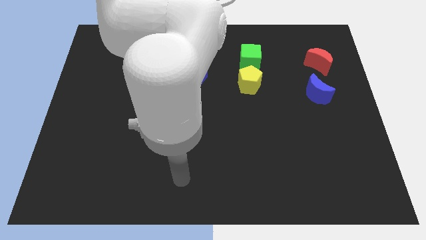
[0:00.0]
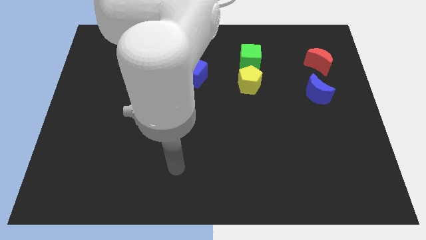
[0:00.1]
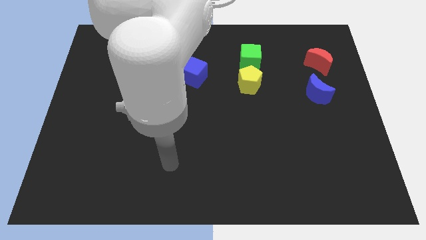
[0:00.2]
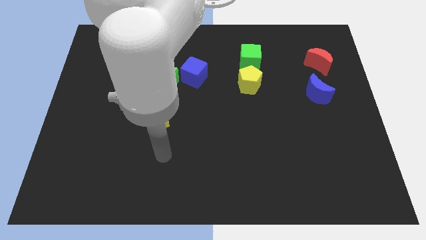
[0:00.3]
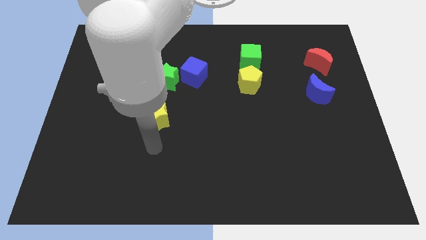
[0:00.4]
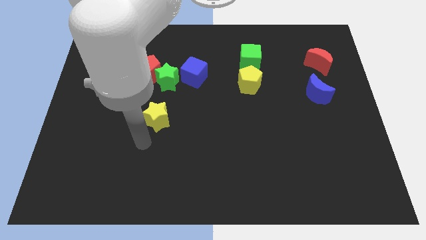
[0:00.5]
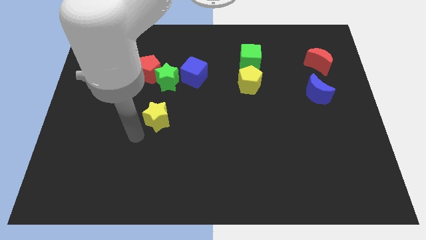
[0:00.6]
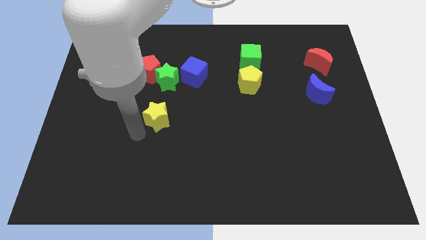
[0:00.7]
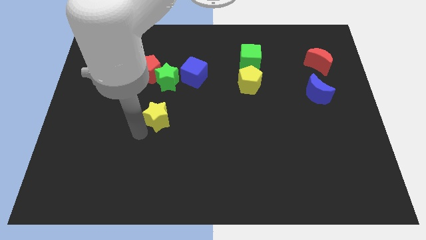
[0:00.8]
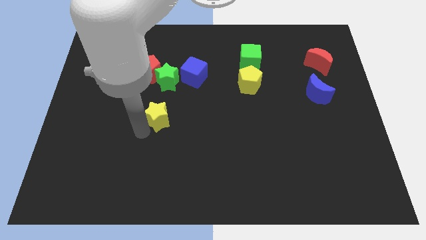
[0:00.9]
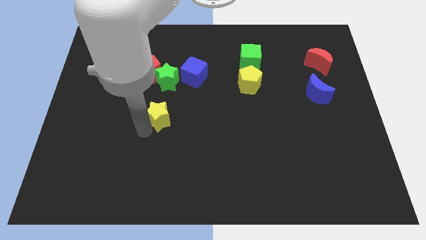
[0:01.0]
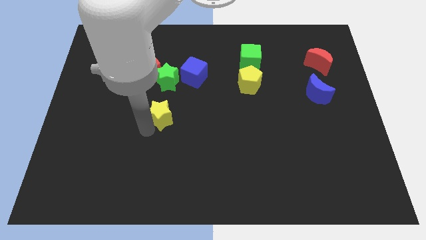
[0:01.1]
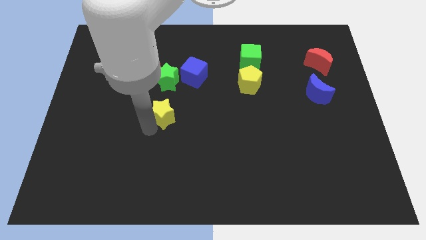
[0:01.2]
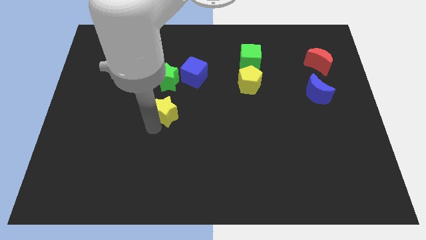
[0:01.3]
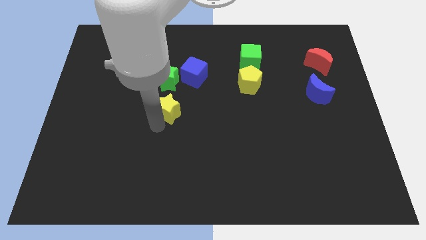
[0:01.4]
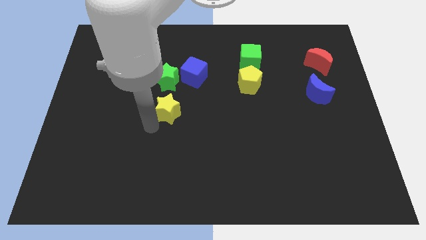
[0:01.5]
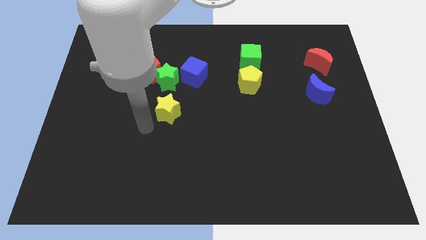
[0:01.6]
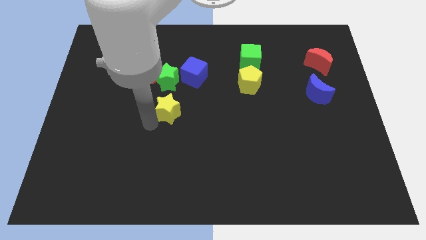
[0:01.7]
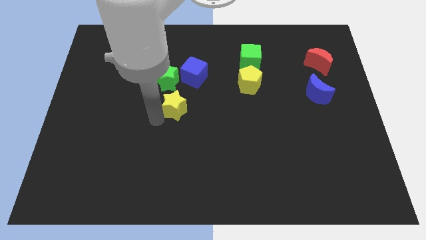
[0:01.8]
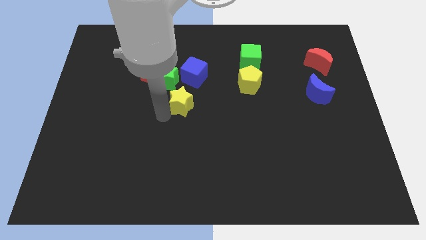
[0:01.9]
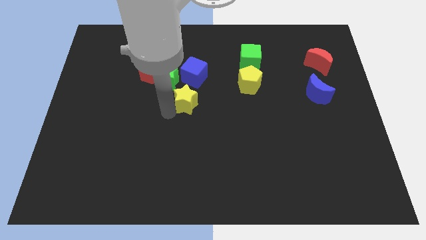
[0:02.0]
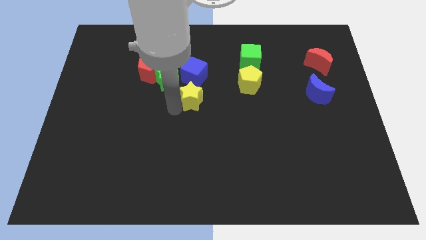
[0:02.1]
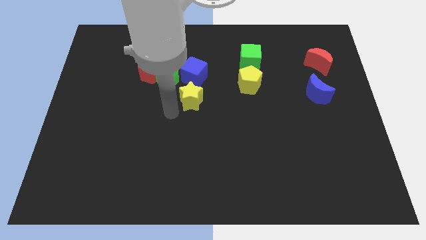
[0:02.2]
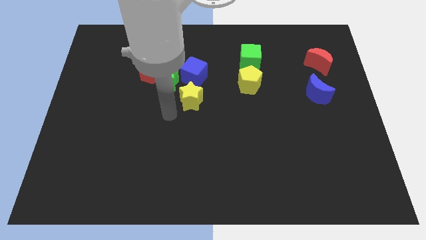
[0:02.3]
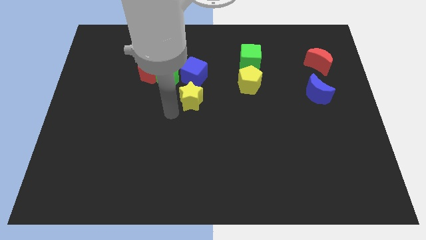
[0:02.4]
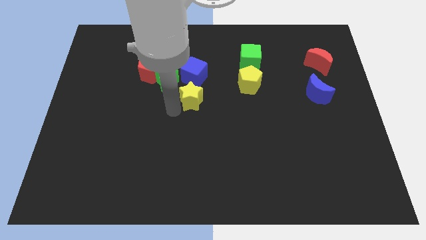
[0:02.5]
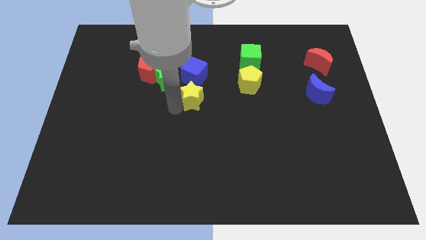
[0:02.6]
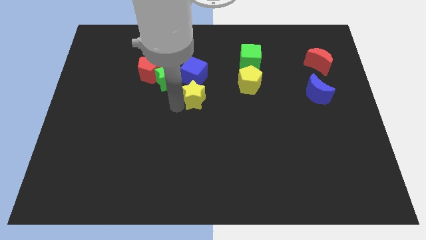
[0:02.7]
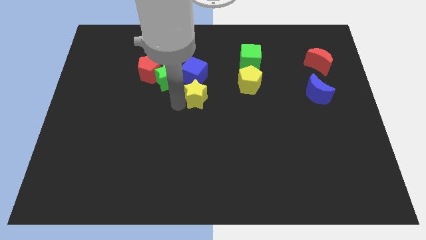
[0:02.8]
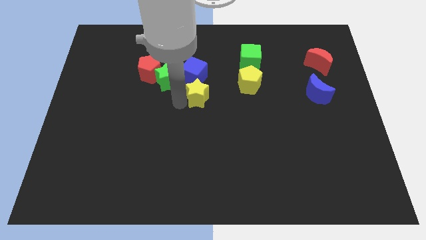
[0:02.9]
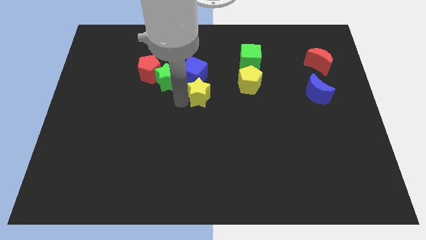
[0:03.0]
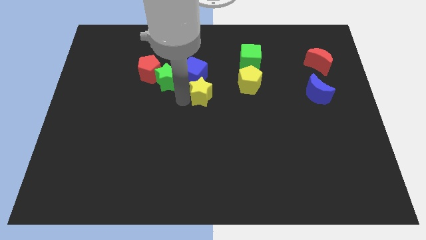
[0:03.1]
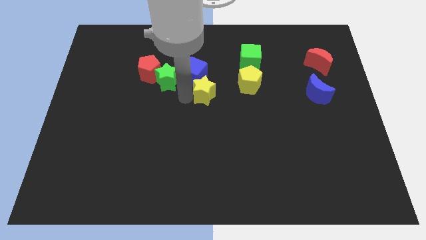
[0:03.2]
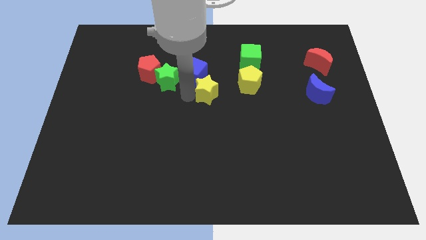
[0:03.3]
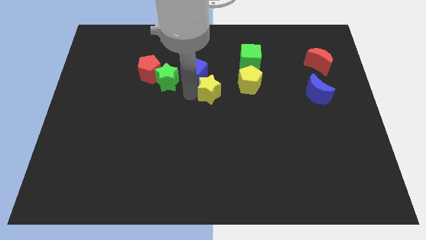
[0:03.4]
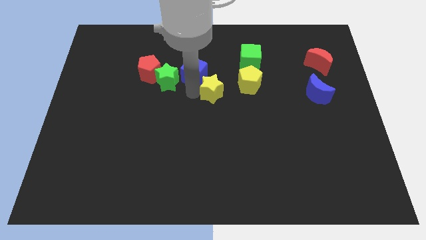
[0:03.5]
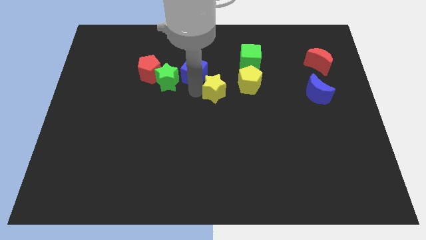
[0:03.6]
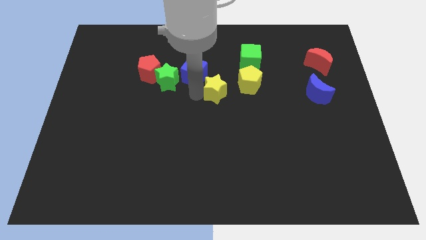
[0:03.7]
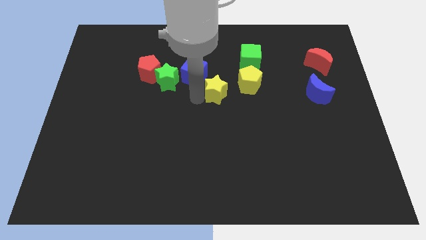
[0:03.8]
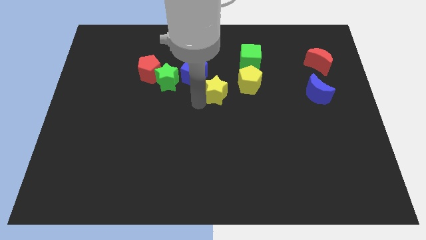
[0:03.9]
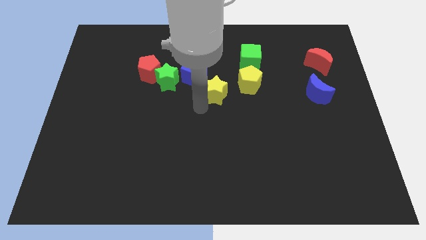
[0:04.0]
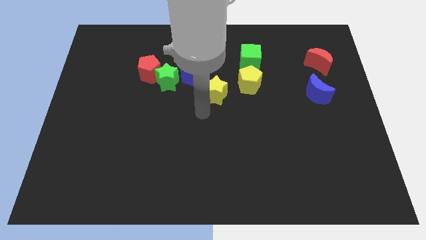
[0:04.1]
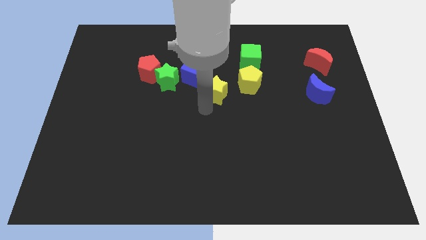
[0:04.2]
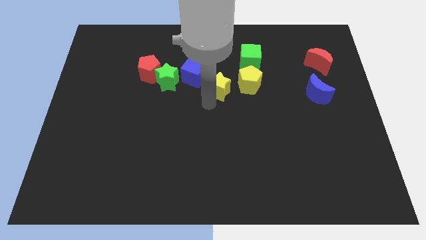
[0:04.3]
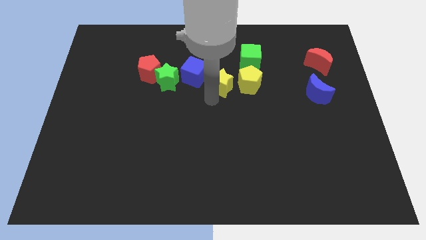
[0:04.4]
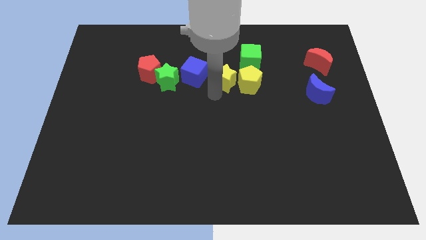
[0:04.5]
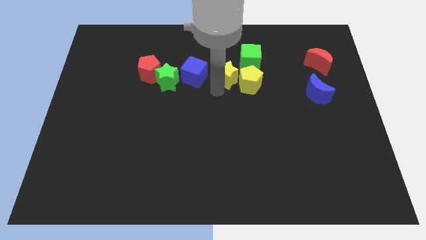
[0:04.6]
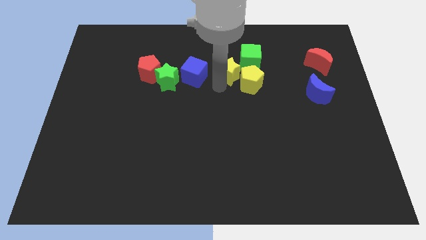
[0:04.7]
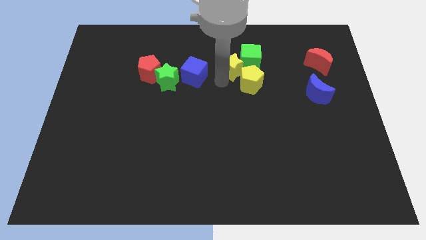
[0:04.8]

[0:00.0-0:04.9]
push the yellow star to the green cube

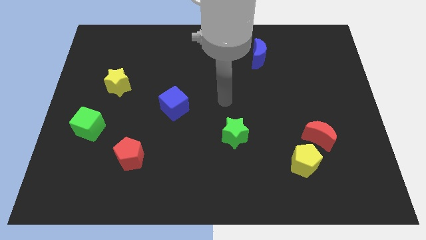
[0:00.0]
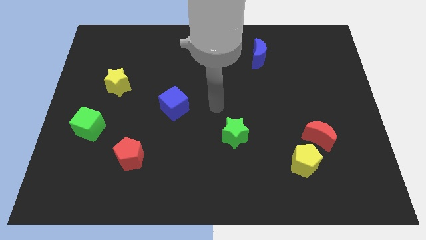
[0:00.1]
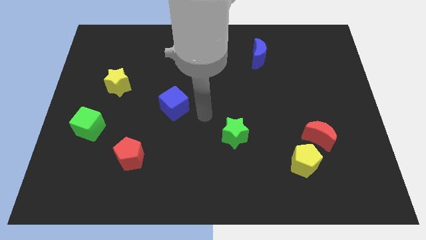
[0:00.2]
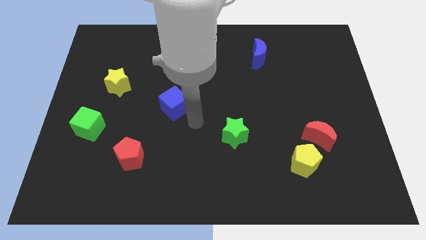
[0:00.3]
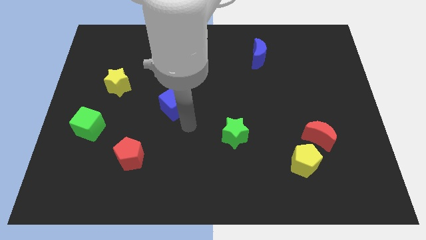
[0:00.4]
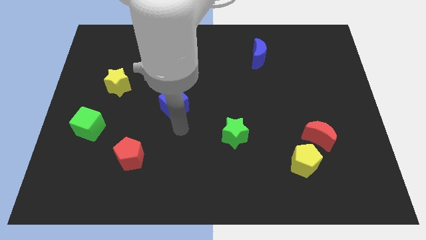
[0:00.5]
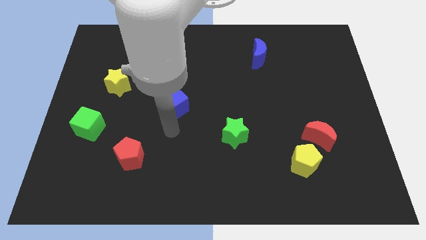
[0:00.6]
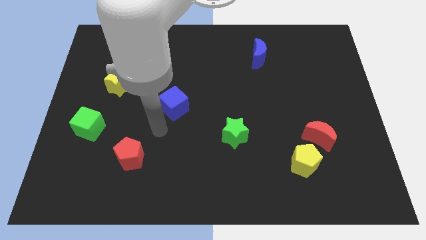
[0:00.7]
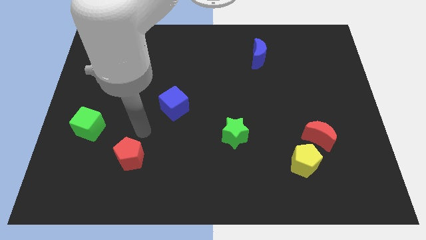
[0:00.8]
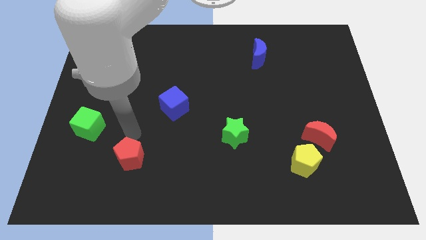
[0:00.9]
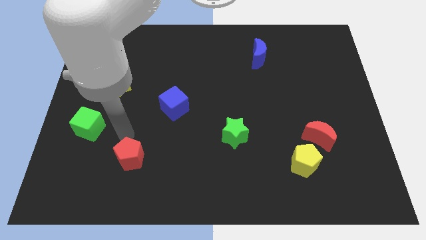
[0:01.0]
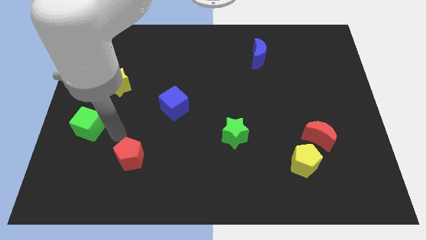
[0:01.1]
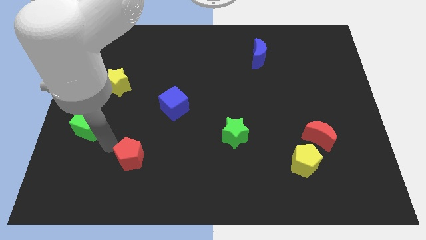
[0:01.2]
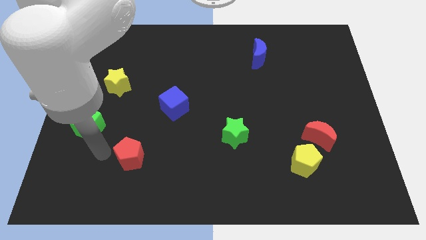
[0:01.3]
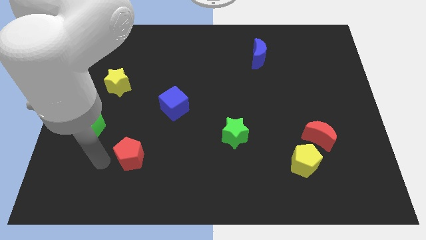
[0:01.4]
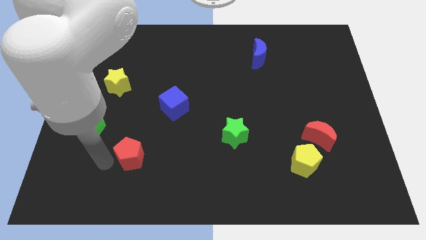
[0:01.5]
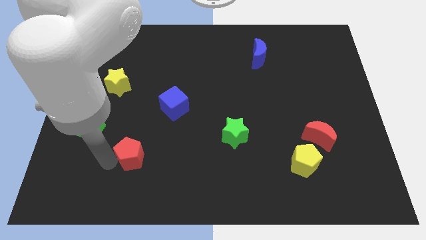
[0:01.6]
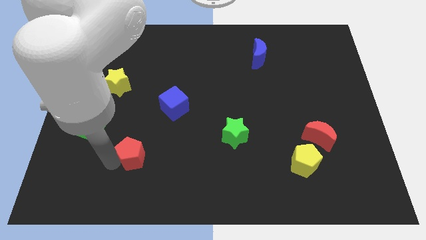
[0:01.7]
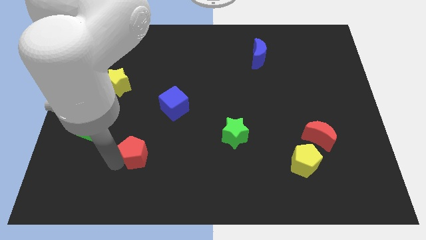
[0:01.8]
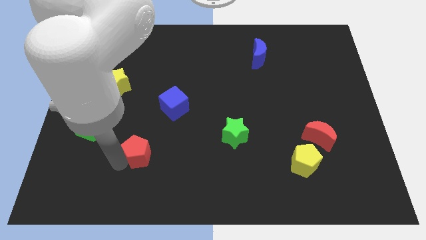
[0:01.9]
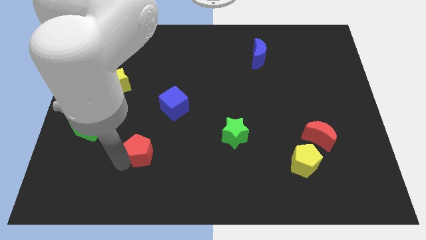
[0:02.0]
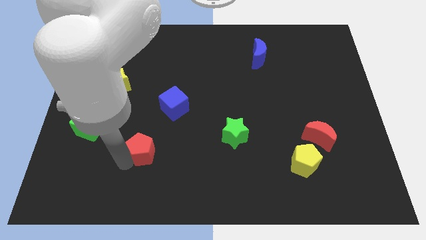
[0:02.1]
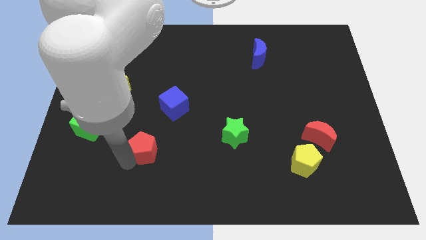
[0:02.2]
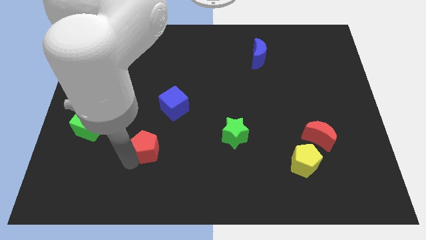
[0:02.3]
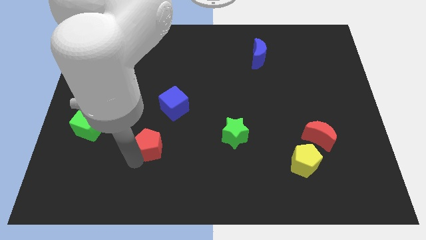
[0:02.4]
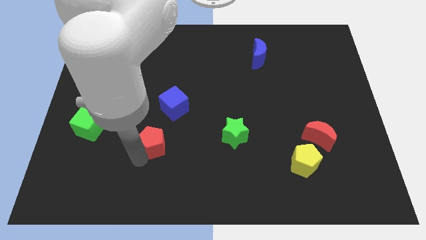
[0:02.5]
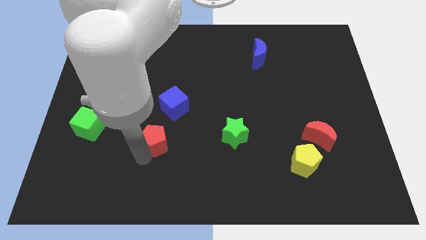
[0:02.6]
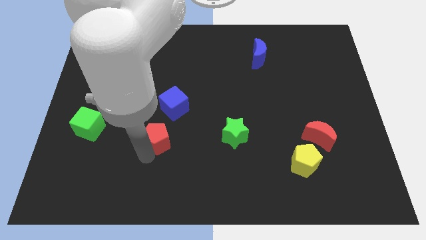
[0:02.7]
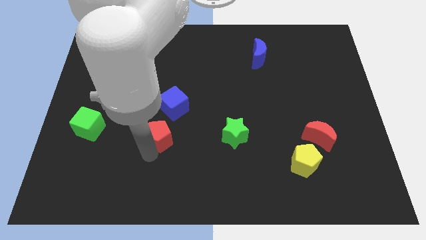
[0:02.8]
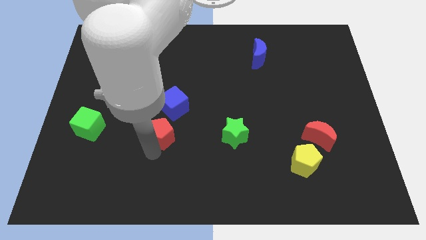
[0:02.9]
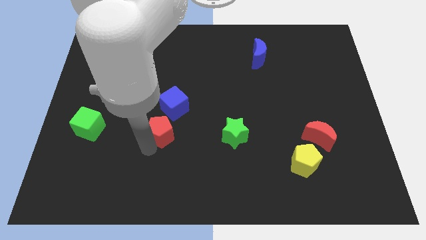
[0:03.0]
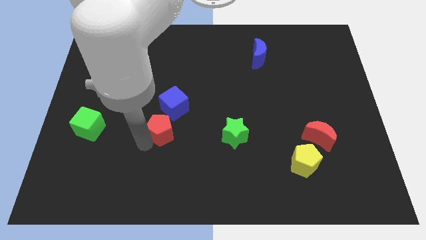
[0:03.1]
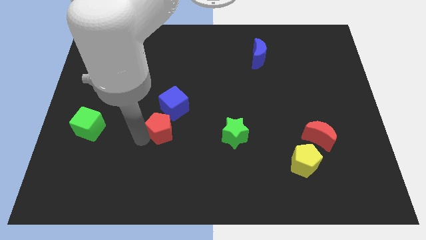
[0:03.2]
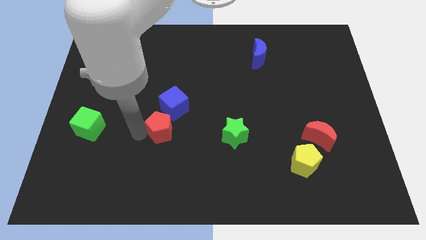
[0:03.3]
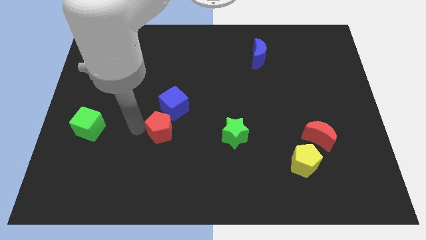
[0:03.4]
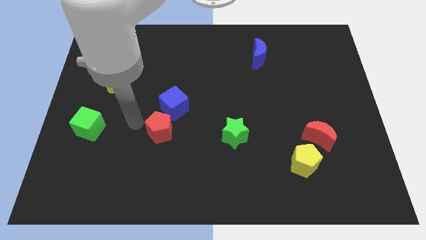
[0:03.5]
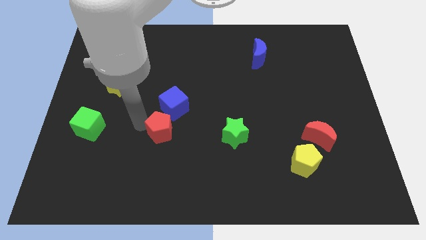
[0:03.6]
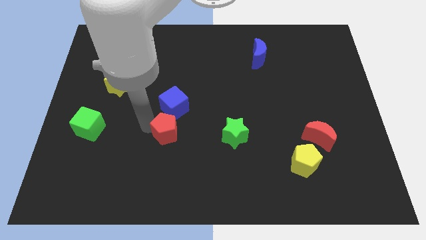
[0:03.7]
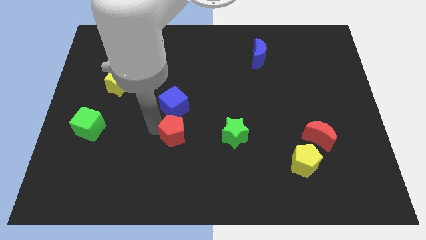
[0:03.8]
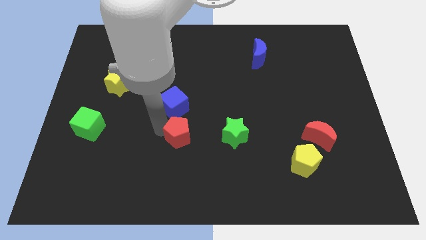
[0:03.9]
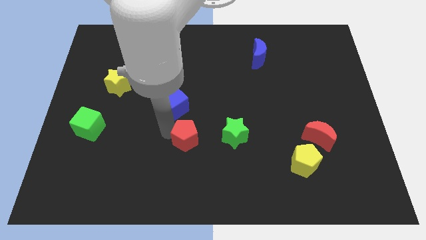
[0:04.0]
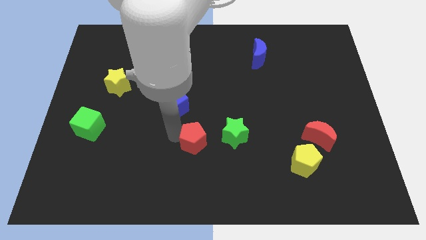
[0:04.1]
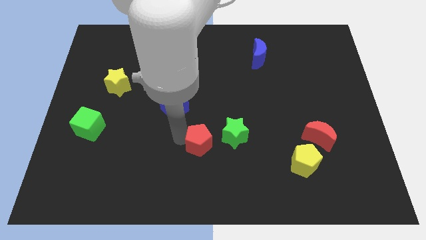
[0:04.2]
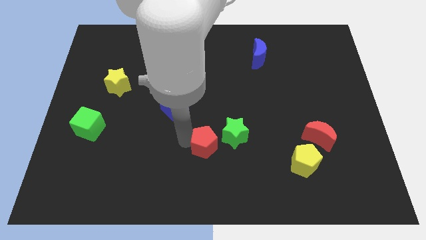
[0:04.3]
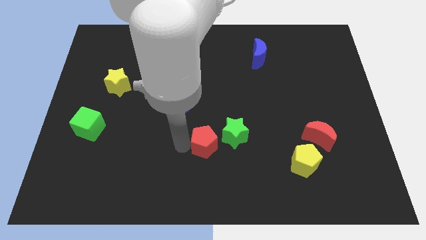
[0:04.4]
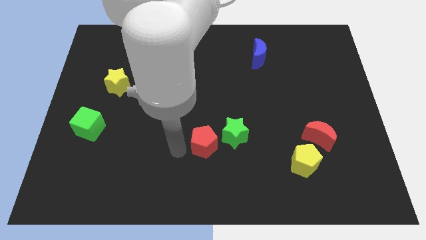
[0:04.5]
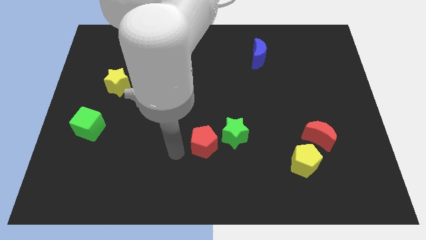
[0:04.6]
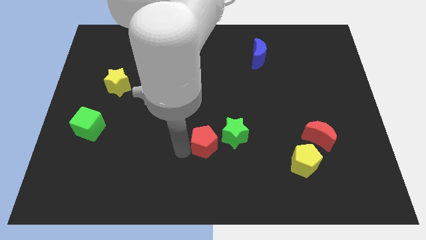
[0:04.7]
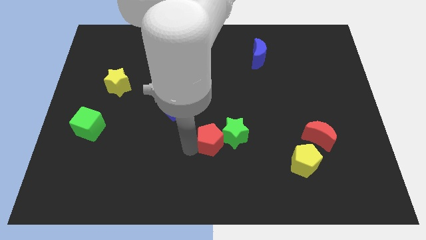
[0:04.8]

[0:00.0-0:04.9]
move the red pentagon to the green star
